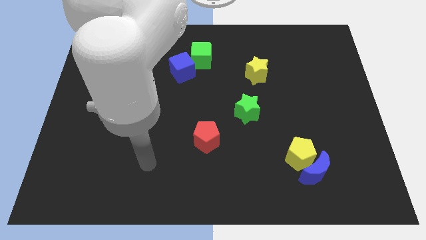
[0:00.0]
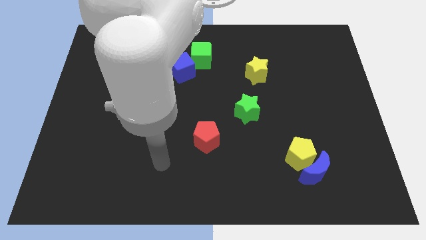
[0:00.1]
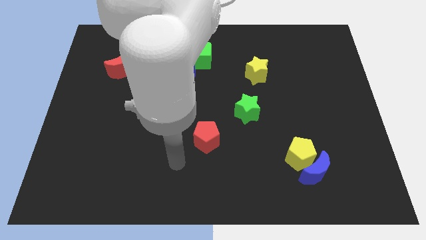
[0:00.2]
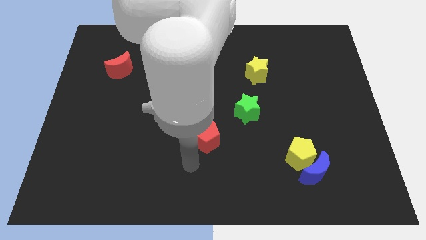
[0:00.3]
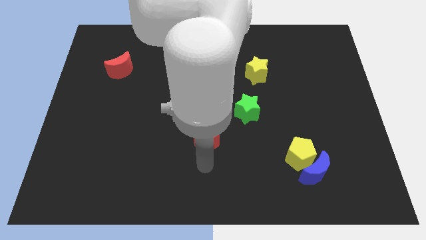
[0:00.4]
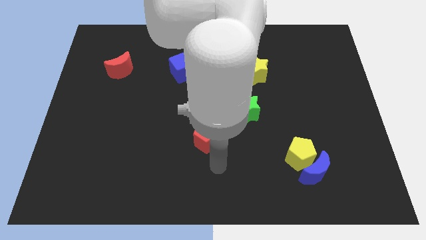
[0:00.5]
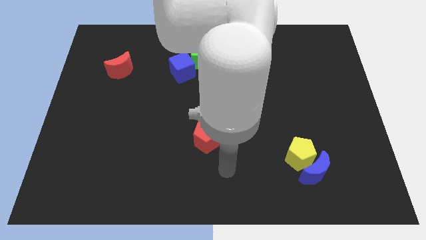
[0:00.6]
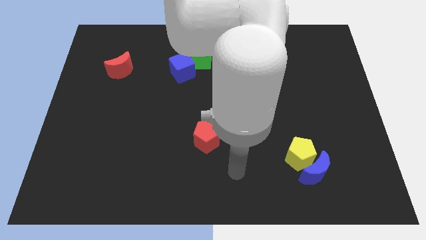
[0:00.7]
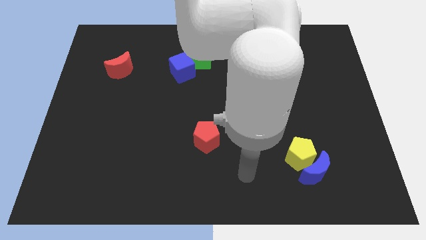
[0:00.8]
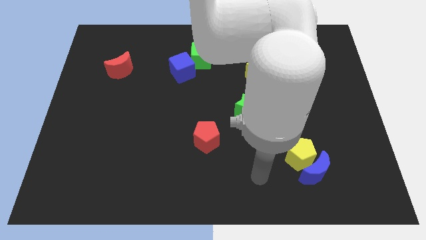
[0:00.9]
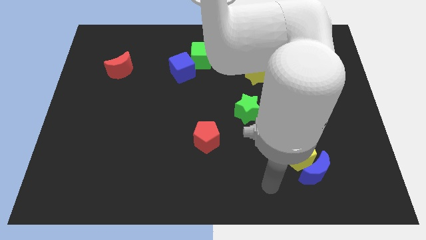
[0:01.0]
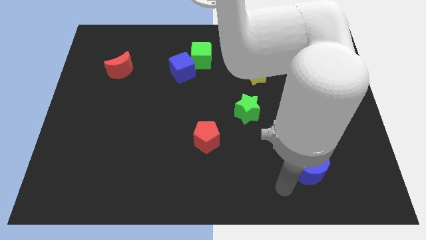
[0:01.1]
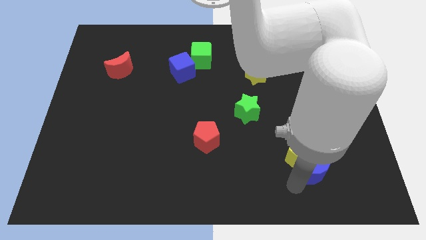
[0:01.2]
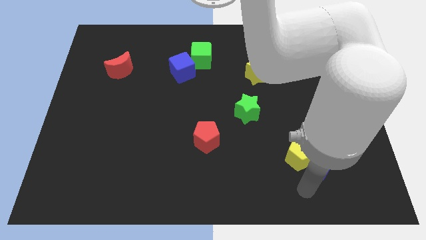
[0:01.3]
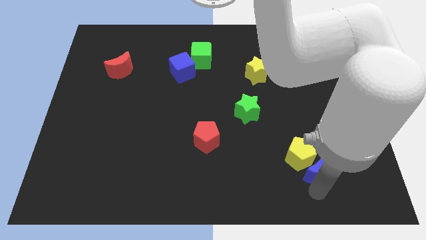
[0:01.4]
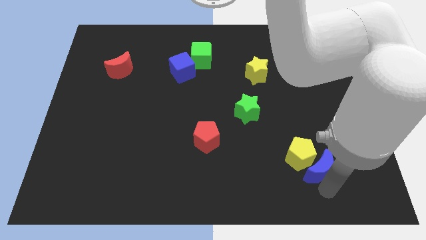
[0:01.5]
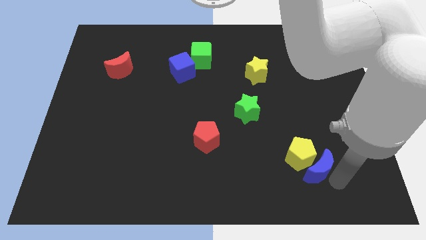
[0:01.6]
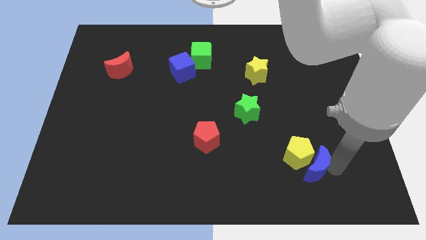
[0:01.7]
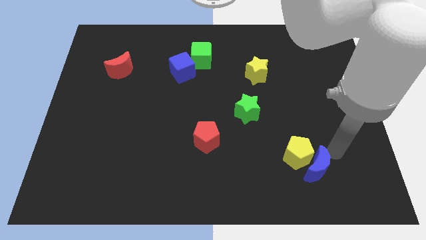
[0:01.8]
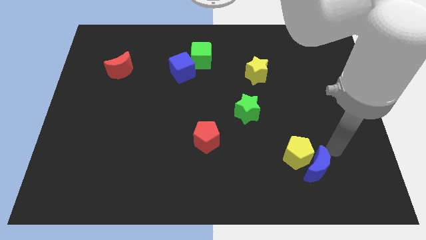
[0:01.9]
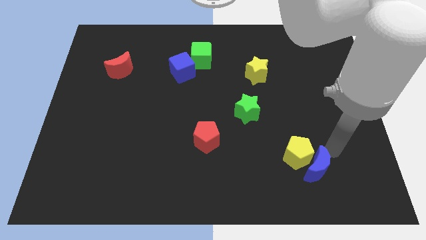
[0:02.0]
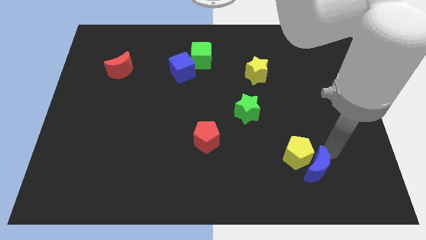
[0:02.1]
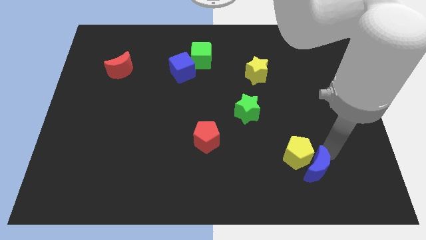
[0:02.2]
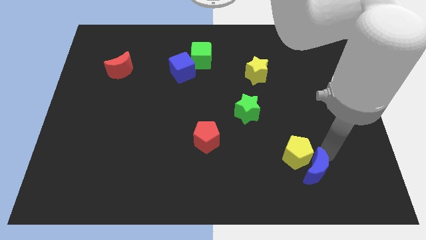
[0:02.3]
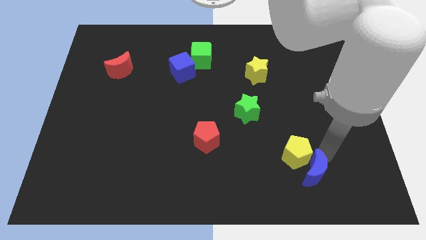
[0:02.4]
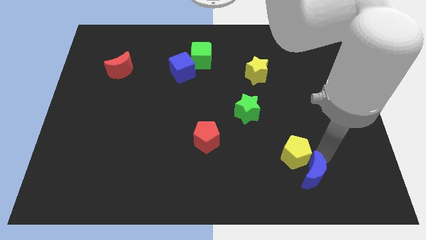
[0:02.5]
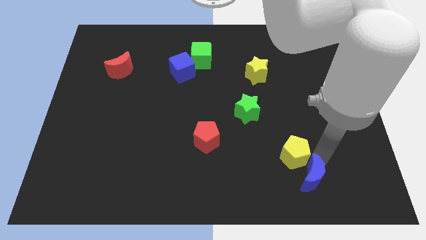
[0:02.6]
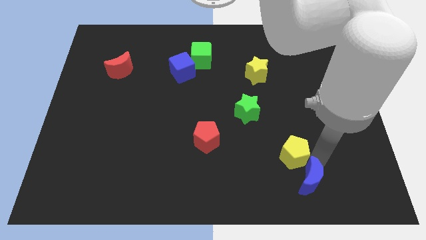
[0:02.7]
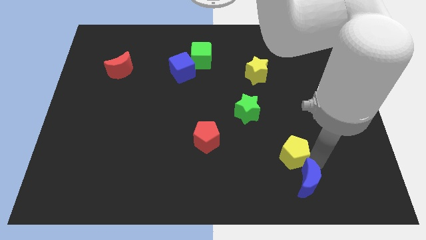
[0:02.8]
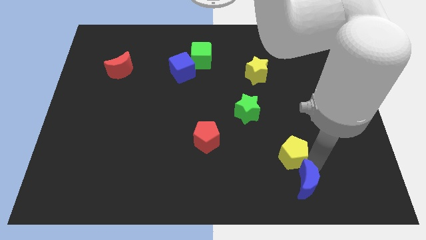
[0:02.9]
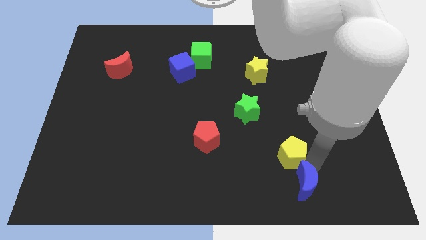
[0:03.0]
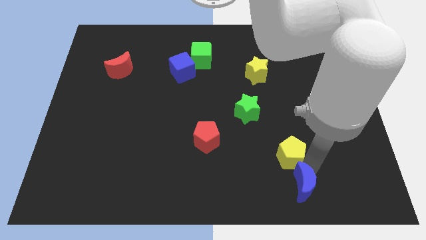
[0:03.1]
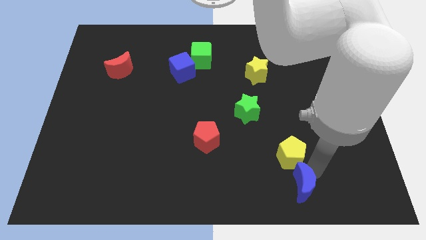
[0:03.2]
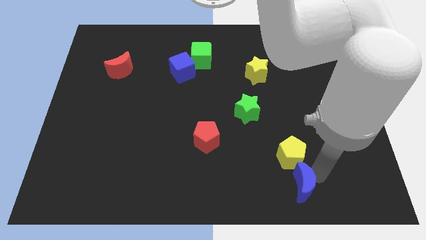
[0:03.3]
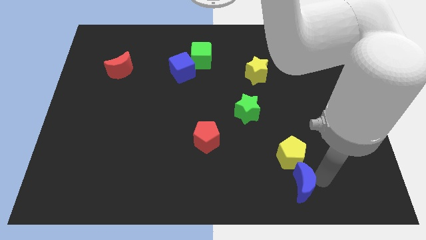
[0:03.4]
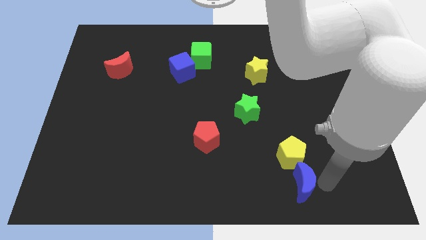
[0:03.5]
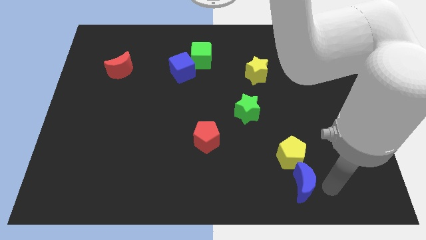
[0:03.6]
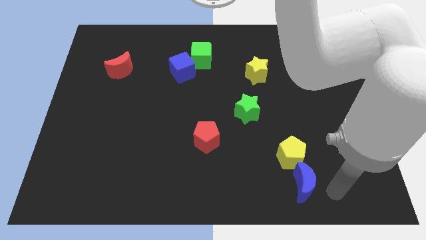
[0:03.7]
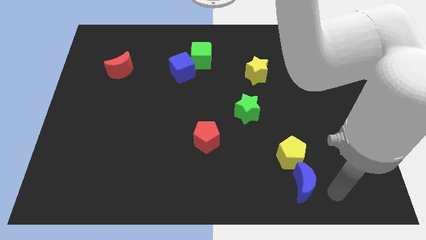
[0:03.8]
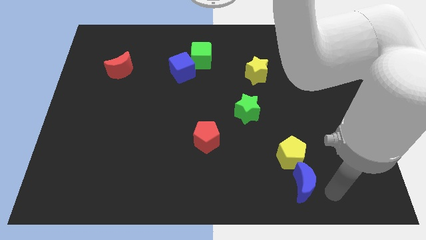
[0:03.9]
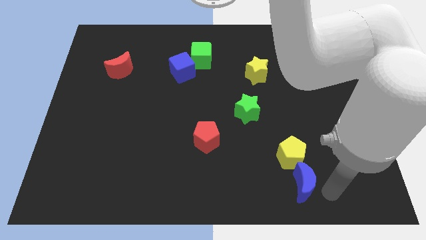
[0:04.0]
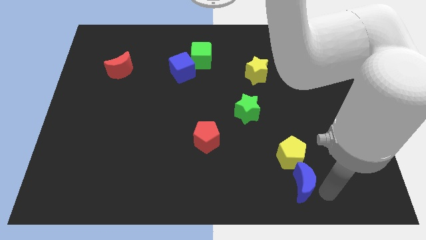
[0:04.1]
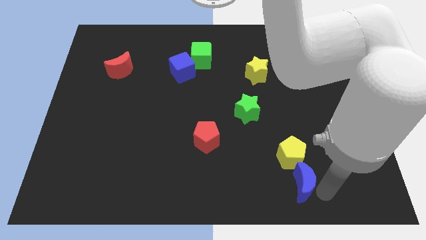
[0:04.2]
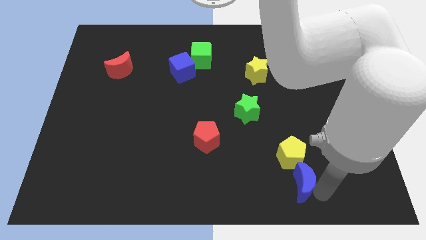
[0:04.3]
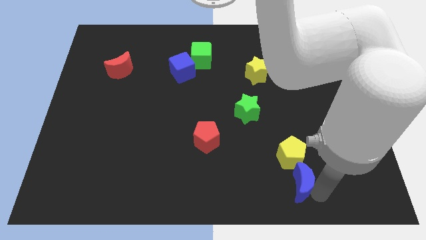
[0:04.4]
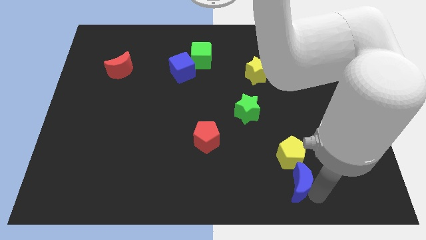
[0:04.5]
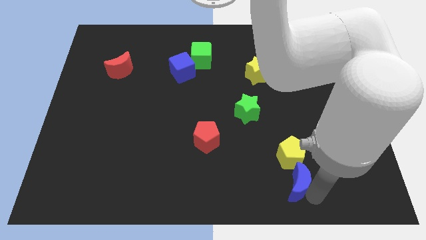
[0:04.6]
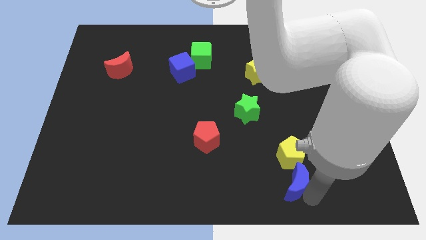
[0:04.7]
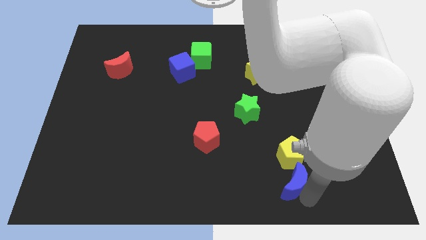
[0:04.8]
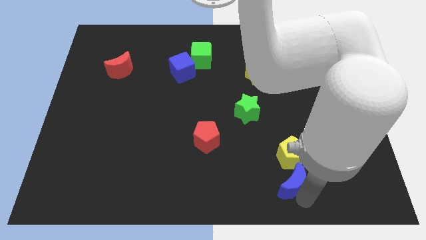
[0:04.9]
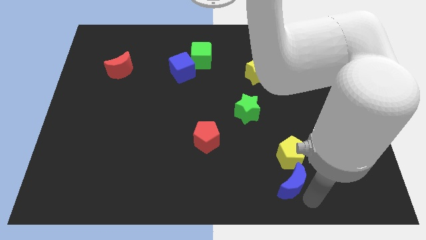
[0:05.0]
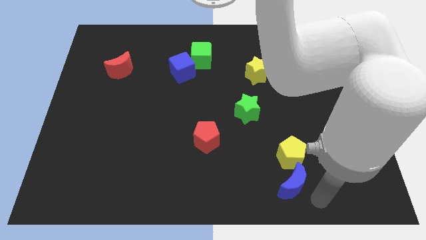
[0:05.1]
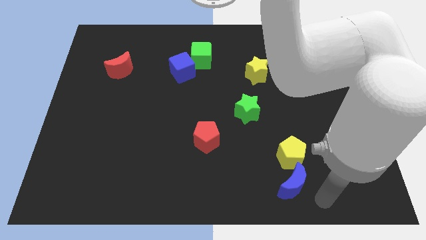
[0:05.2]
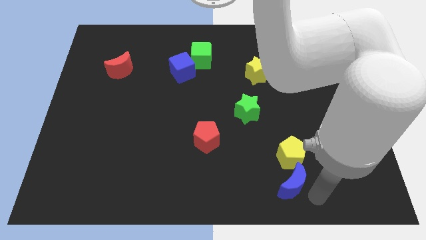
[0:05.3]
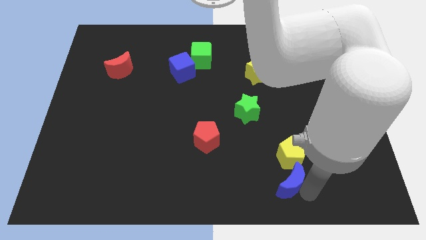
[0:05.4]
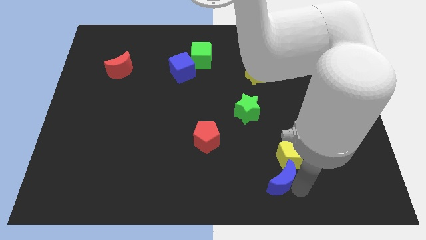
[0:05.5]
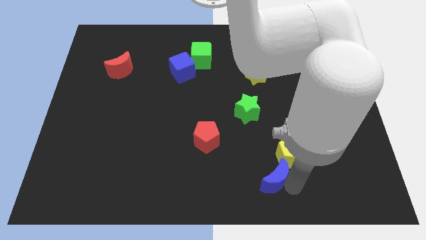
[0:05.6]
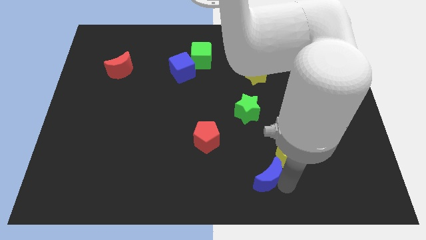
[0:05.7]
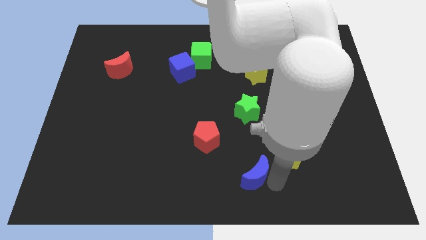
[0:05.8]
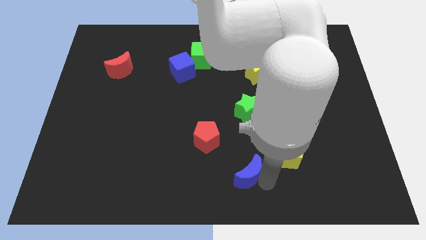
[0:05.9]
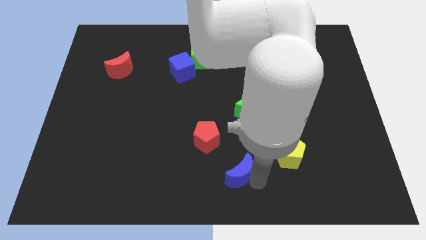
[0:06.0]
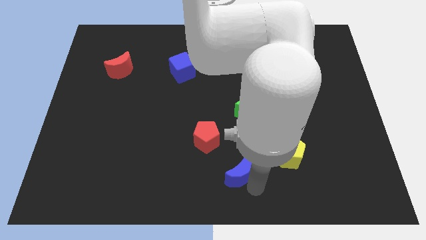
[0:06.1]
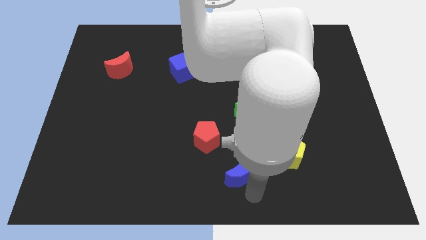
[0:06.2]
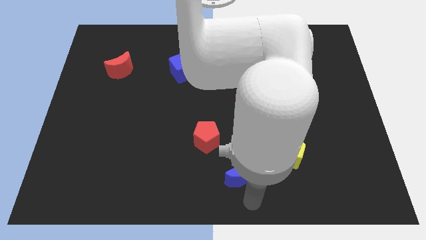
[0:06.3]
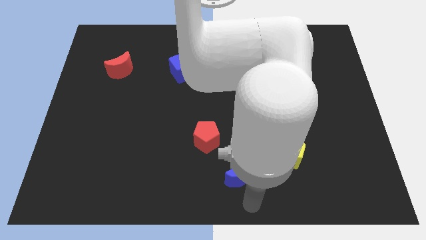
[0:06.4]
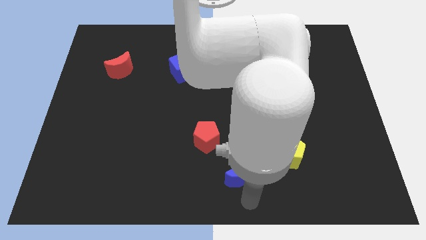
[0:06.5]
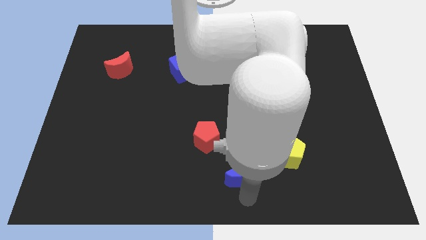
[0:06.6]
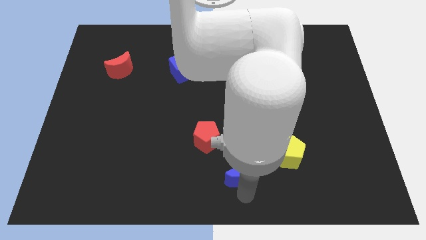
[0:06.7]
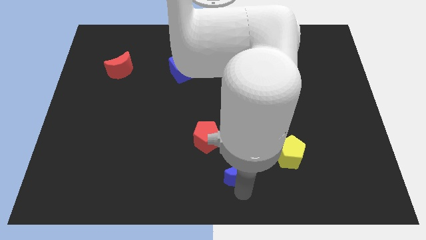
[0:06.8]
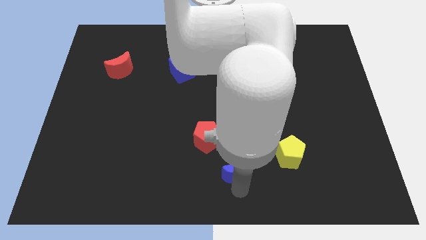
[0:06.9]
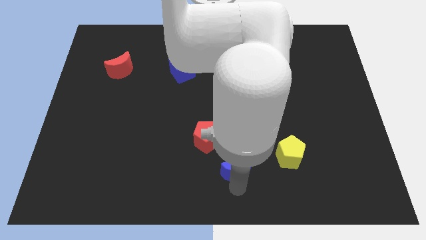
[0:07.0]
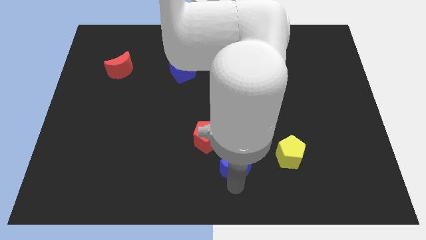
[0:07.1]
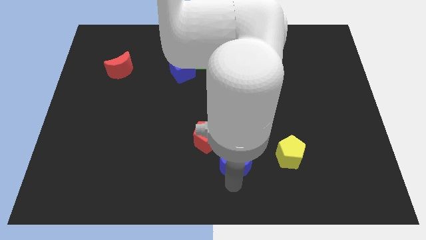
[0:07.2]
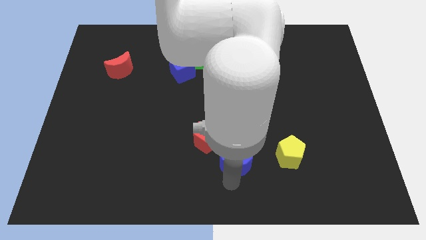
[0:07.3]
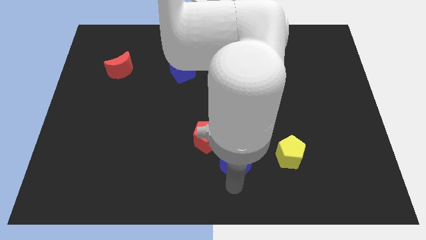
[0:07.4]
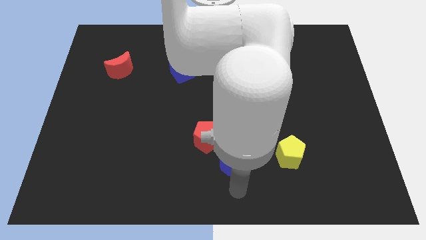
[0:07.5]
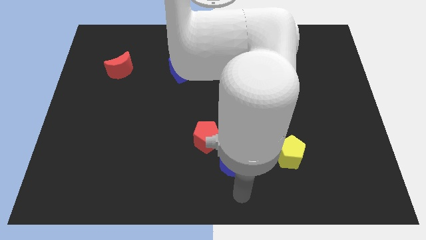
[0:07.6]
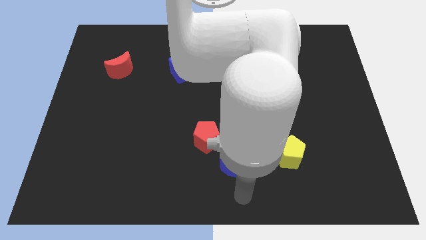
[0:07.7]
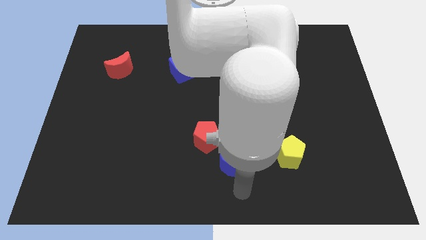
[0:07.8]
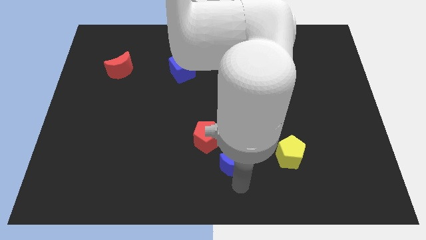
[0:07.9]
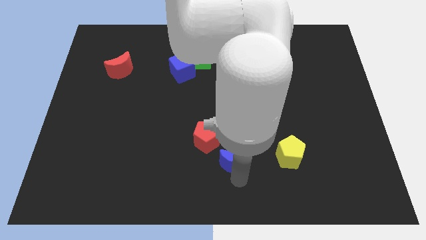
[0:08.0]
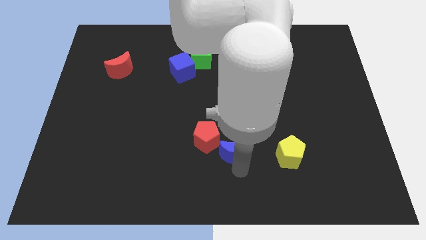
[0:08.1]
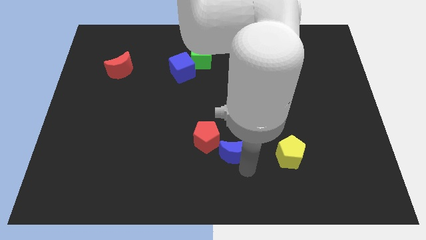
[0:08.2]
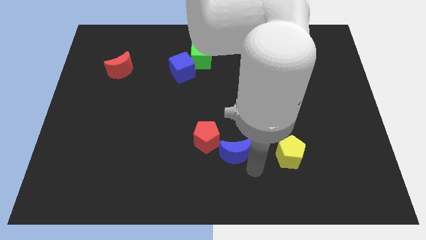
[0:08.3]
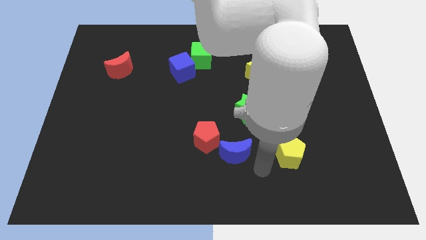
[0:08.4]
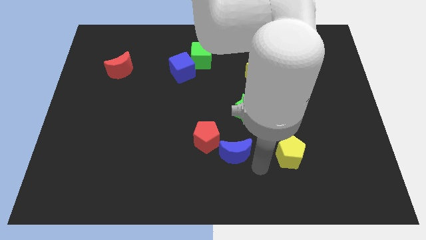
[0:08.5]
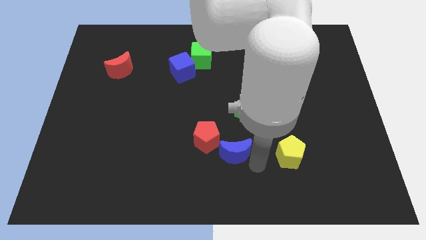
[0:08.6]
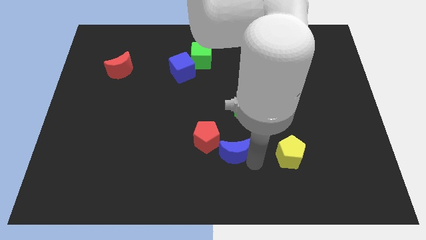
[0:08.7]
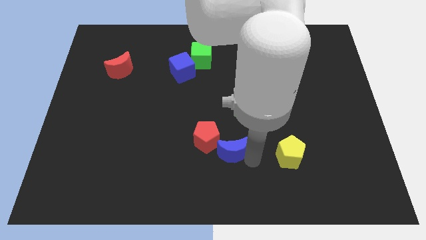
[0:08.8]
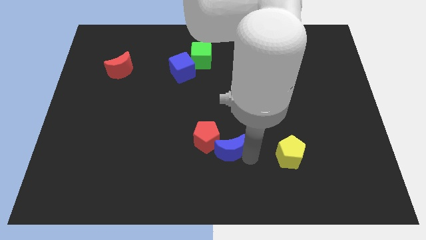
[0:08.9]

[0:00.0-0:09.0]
put the blue moon close to the red pentagon
